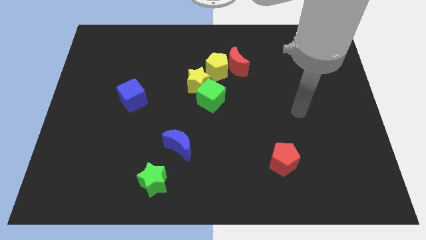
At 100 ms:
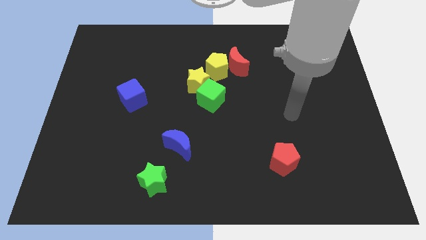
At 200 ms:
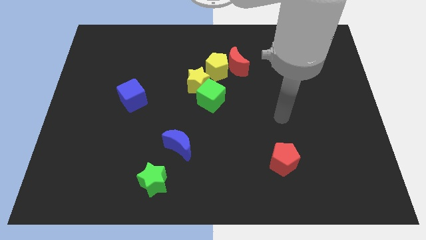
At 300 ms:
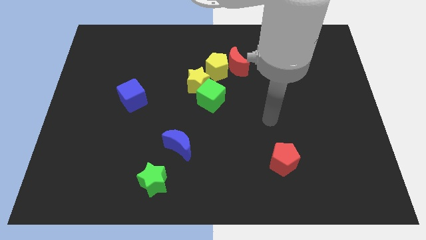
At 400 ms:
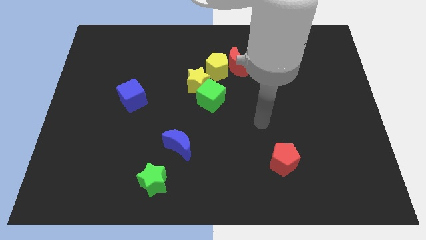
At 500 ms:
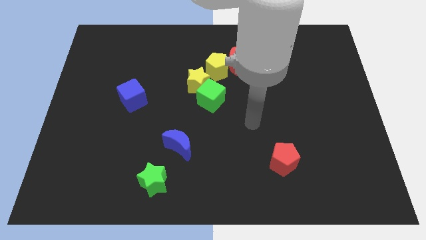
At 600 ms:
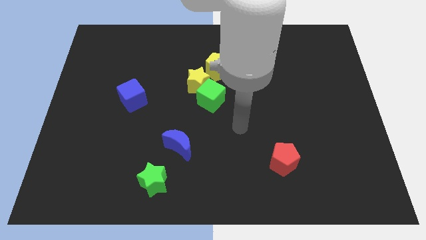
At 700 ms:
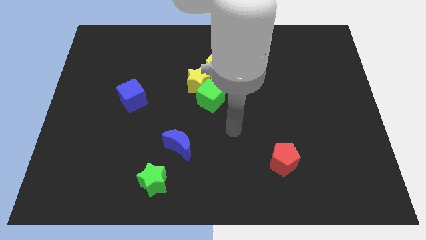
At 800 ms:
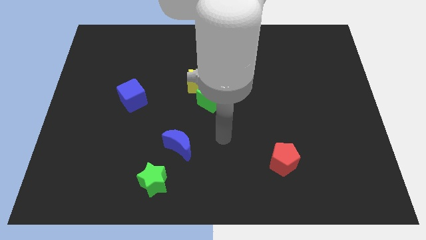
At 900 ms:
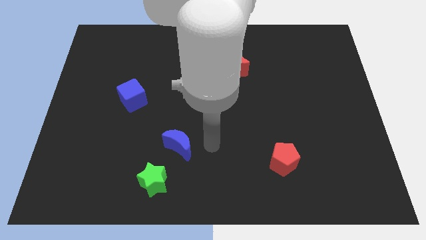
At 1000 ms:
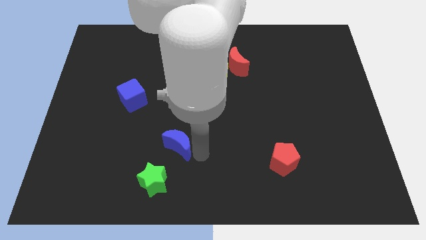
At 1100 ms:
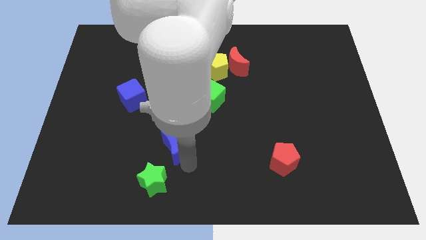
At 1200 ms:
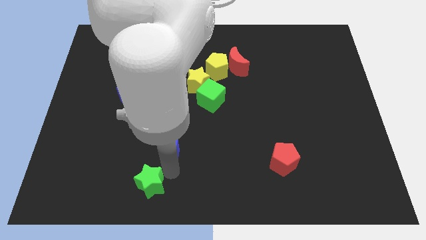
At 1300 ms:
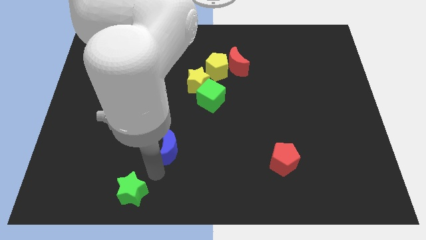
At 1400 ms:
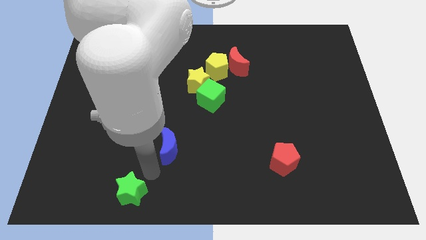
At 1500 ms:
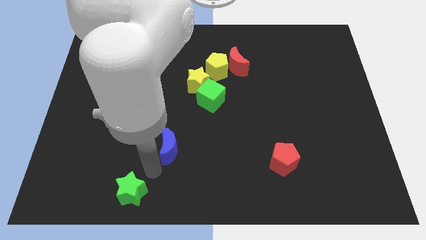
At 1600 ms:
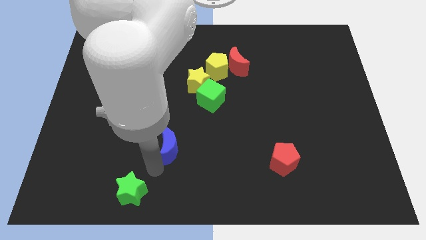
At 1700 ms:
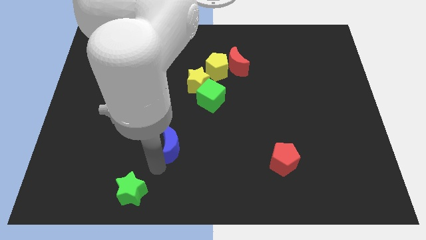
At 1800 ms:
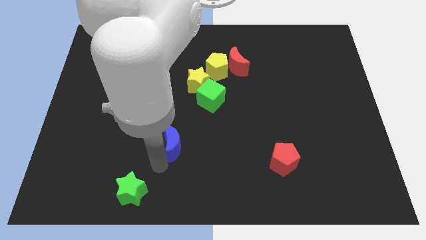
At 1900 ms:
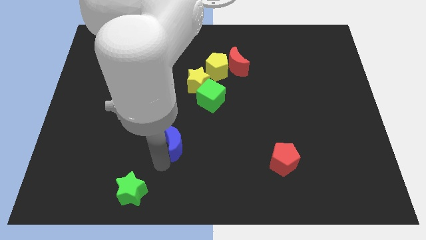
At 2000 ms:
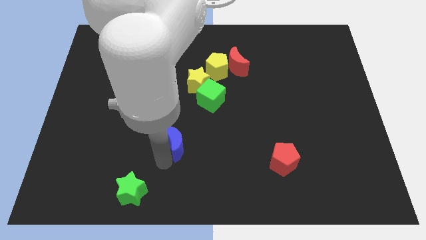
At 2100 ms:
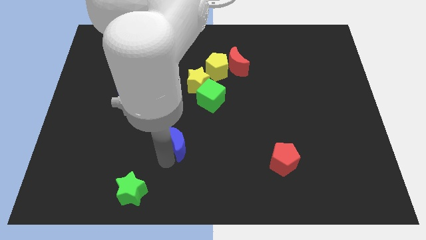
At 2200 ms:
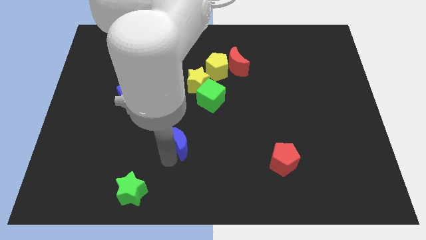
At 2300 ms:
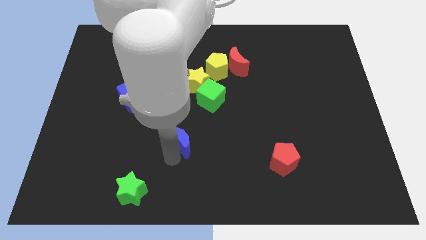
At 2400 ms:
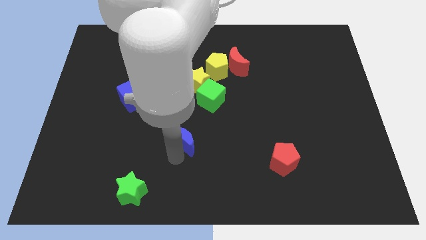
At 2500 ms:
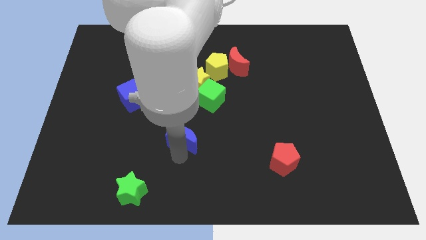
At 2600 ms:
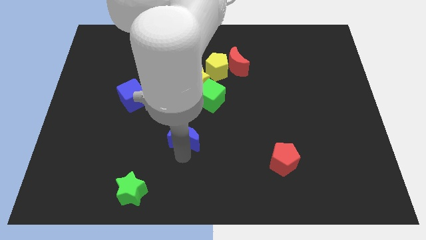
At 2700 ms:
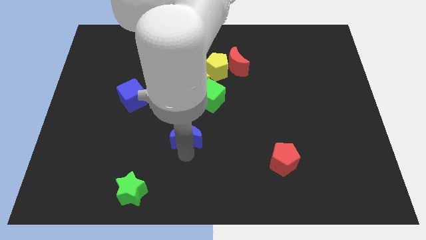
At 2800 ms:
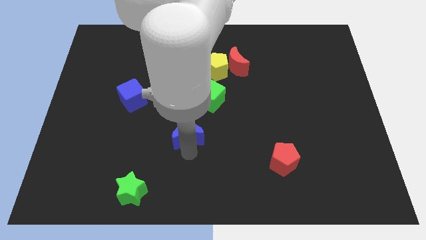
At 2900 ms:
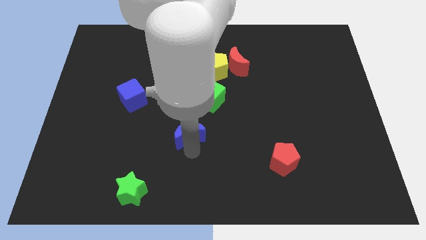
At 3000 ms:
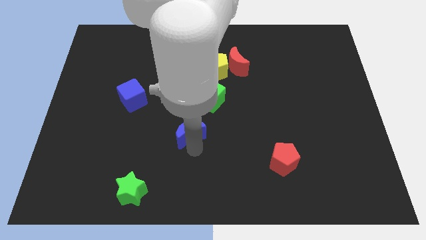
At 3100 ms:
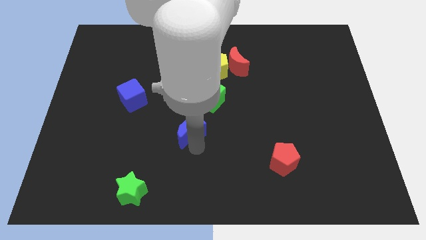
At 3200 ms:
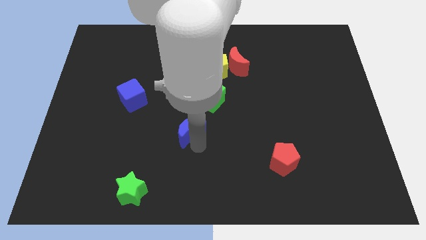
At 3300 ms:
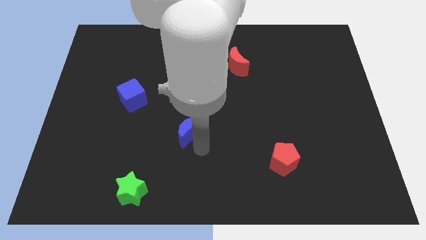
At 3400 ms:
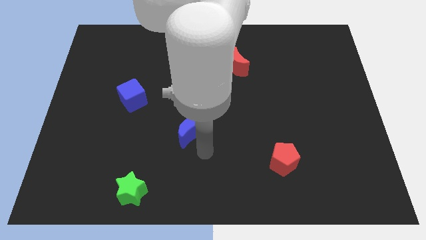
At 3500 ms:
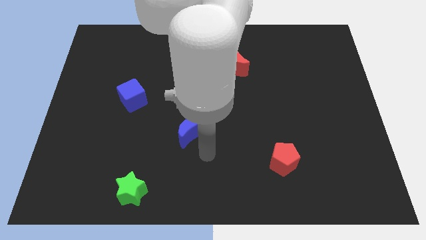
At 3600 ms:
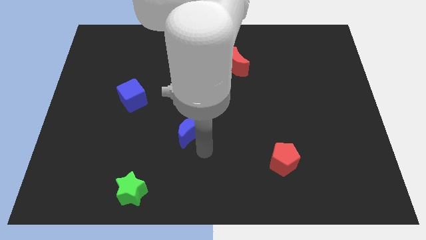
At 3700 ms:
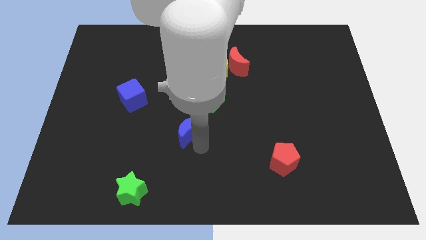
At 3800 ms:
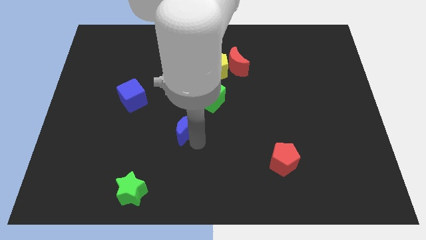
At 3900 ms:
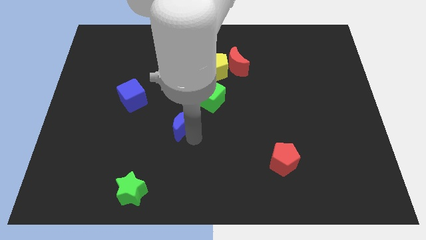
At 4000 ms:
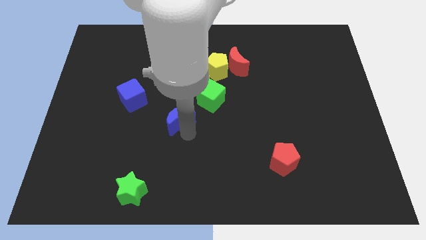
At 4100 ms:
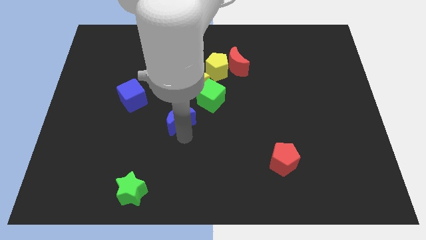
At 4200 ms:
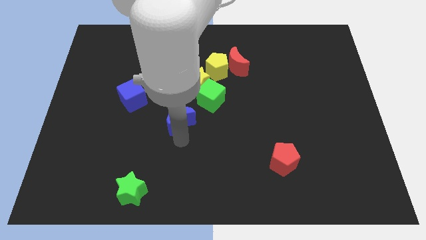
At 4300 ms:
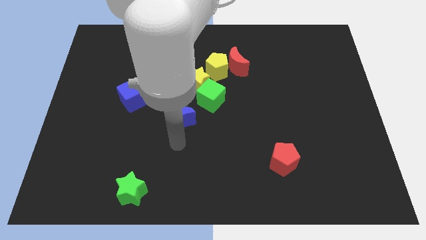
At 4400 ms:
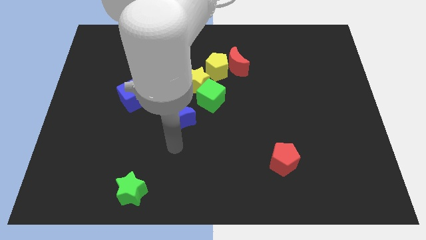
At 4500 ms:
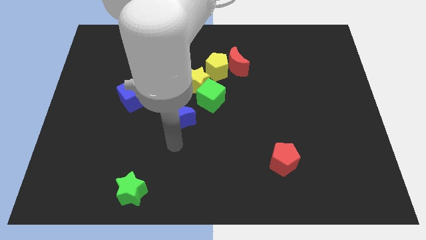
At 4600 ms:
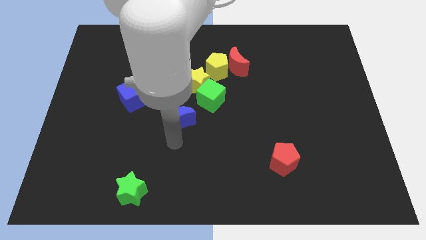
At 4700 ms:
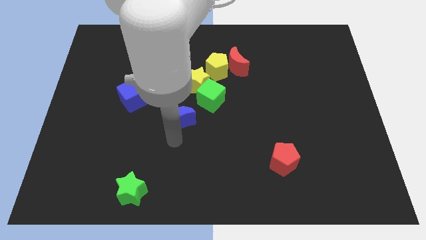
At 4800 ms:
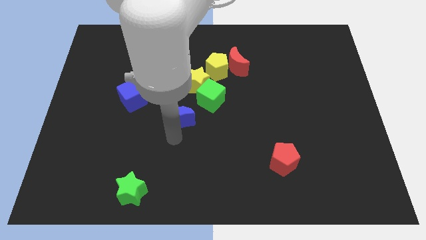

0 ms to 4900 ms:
push the blue moon upwards a little

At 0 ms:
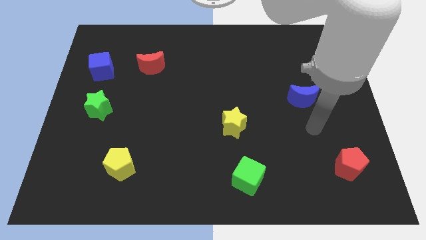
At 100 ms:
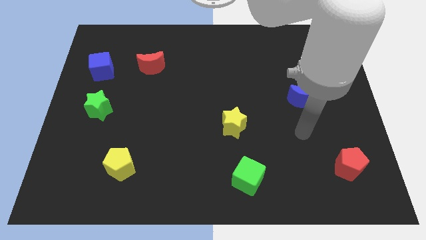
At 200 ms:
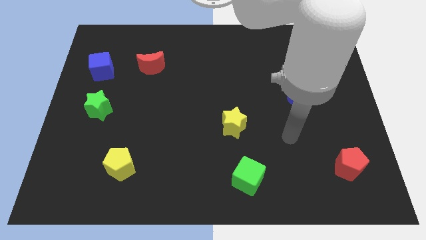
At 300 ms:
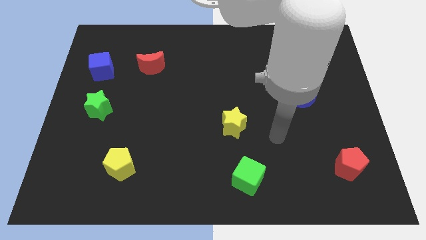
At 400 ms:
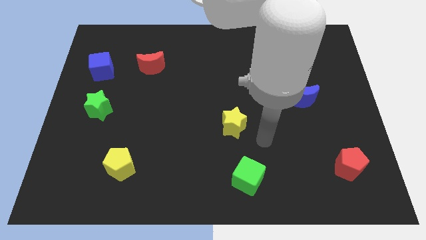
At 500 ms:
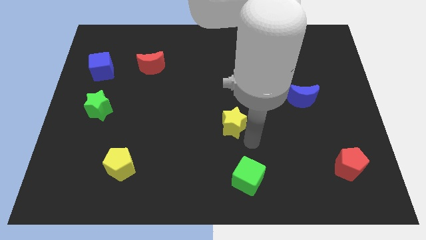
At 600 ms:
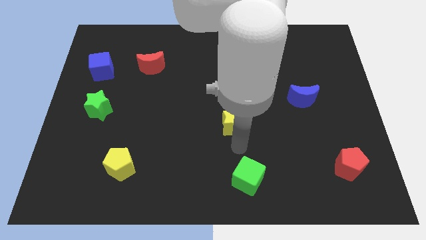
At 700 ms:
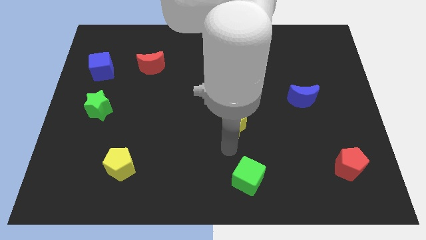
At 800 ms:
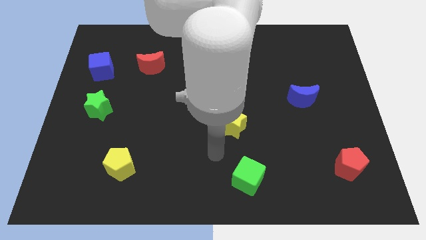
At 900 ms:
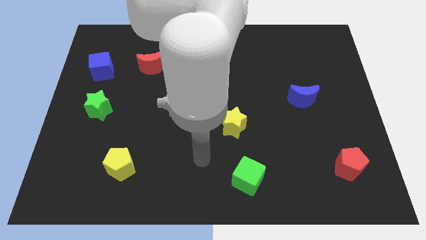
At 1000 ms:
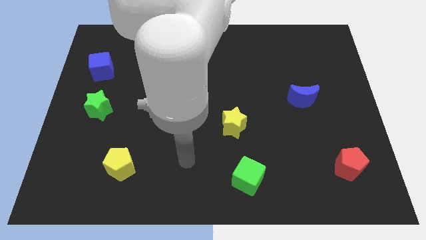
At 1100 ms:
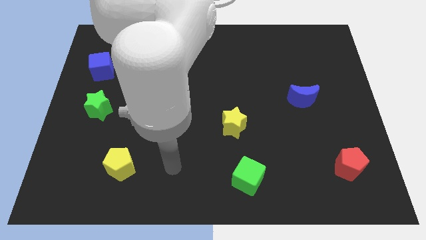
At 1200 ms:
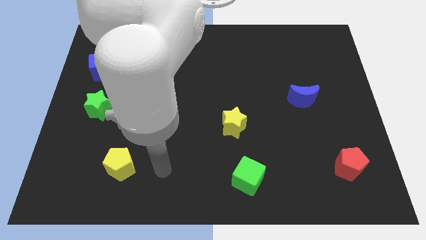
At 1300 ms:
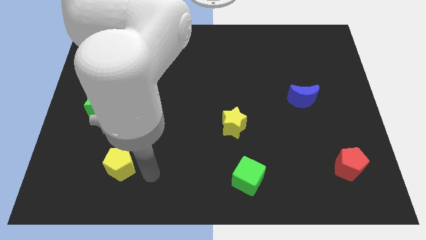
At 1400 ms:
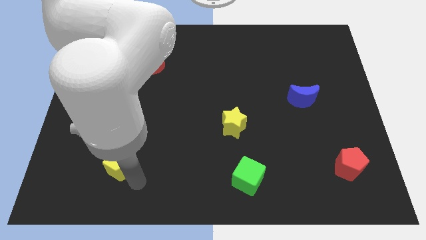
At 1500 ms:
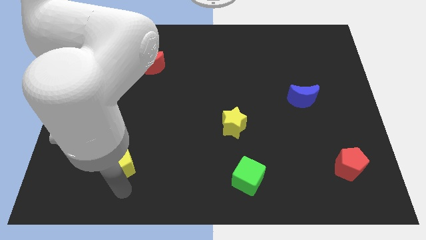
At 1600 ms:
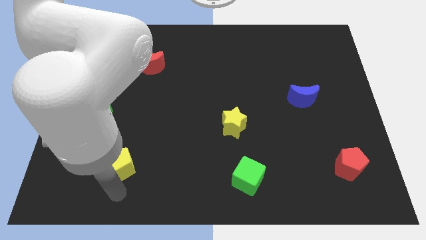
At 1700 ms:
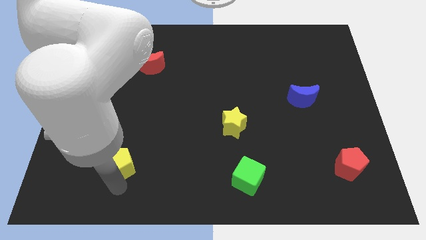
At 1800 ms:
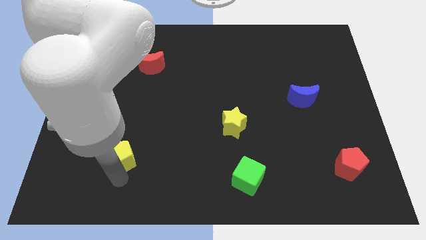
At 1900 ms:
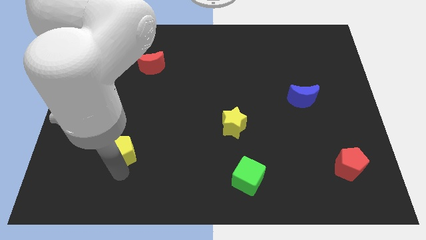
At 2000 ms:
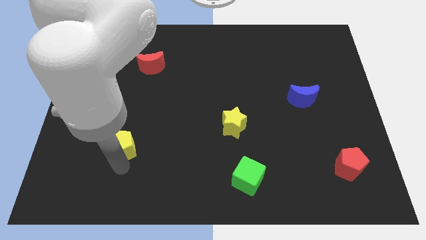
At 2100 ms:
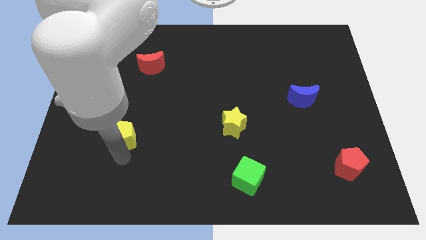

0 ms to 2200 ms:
slightly move the yellow pentagon up

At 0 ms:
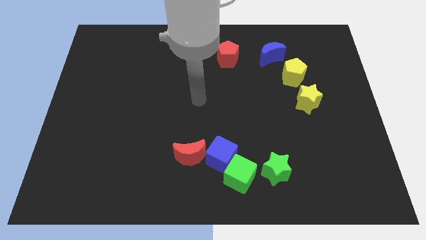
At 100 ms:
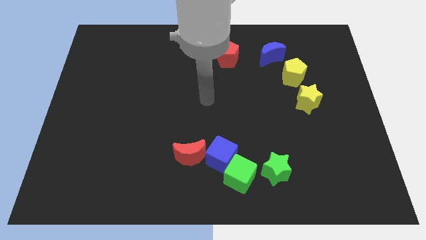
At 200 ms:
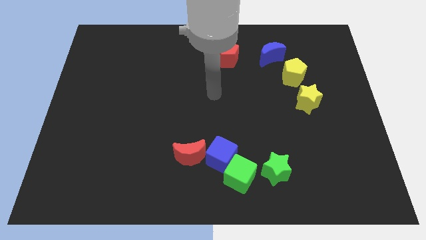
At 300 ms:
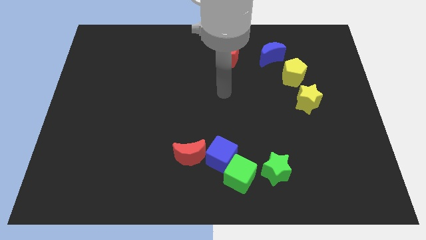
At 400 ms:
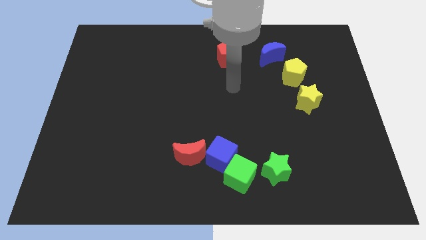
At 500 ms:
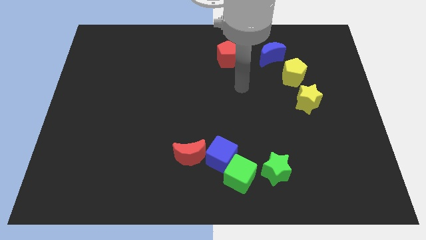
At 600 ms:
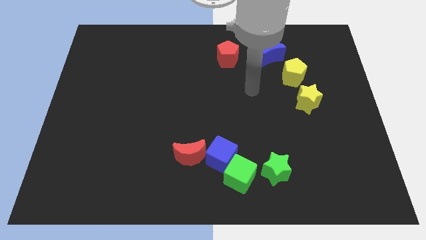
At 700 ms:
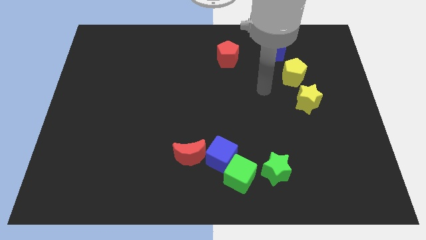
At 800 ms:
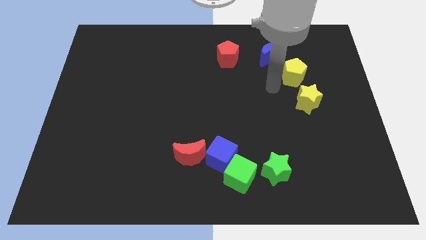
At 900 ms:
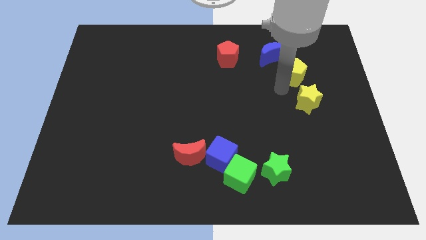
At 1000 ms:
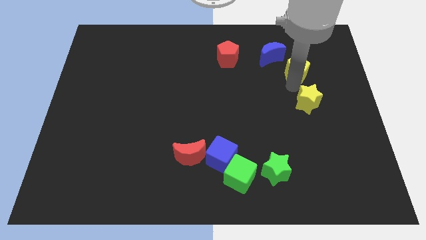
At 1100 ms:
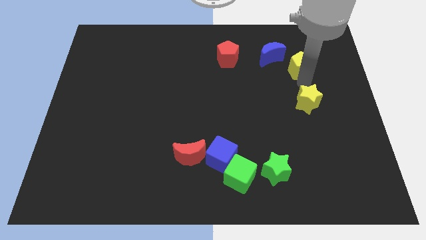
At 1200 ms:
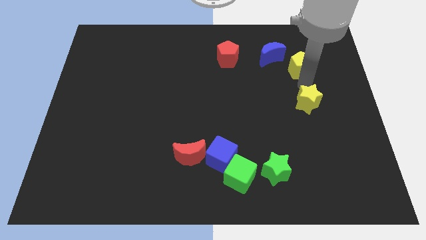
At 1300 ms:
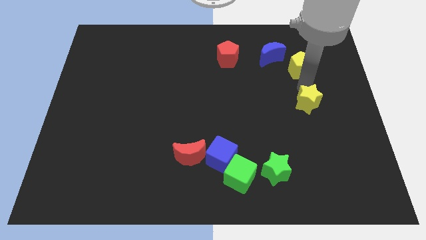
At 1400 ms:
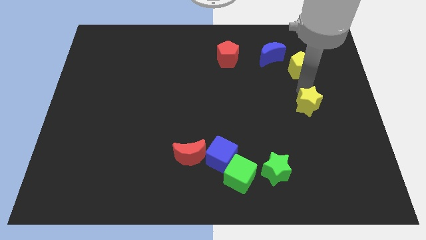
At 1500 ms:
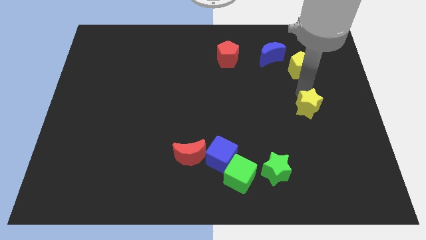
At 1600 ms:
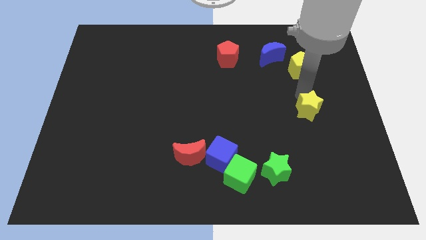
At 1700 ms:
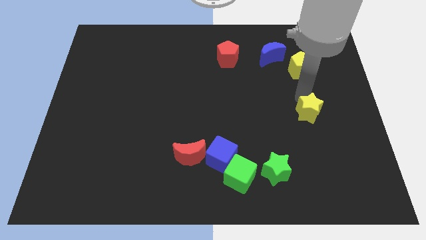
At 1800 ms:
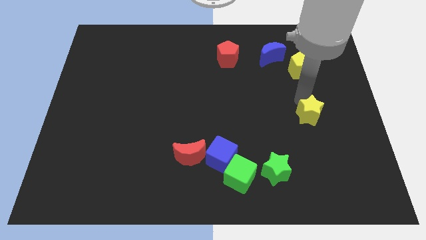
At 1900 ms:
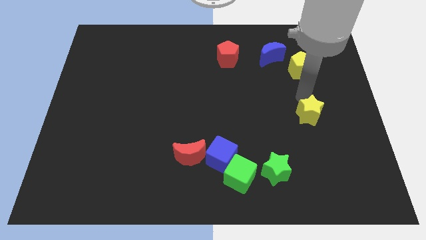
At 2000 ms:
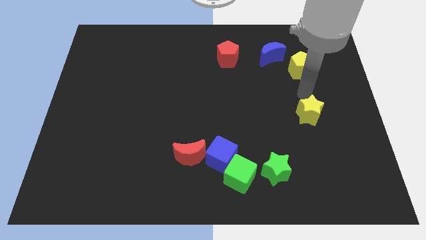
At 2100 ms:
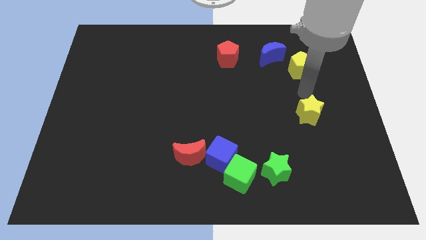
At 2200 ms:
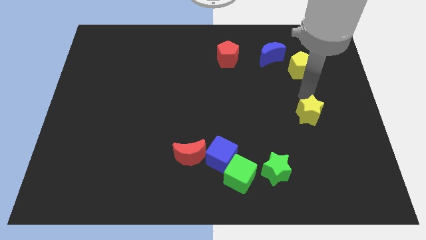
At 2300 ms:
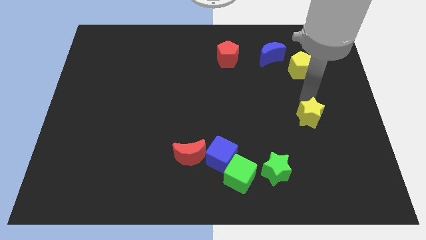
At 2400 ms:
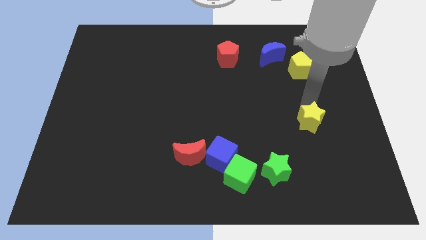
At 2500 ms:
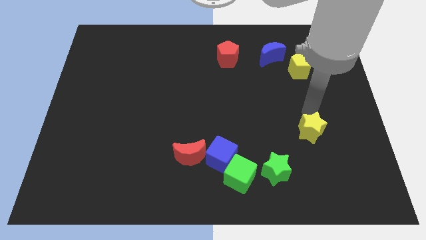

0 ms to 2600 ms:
push the yellow star down a bit
